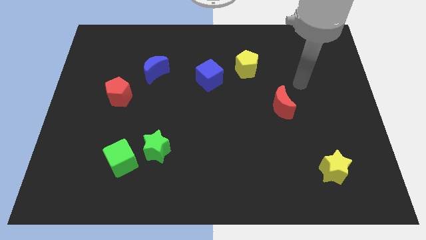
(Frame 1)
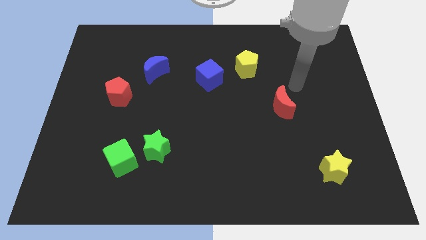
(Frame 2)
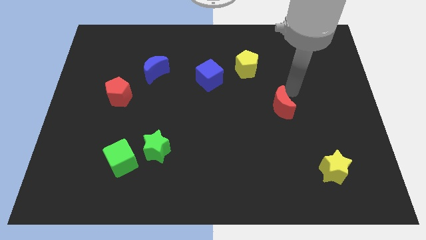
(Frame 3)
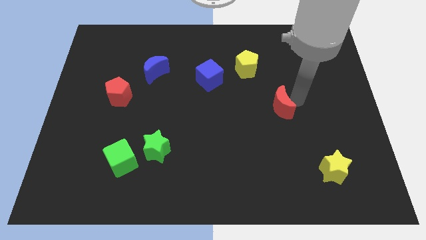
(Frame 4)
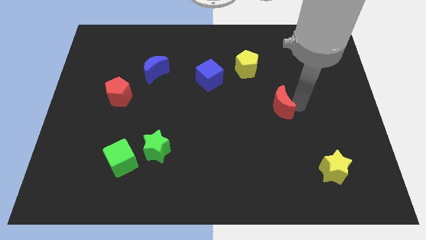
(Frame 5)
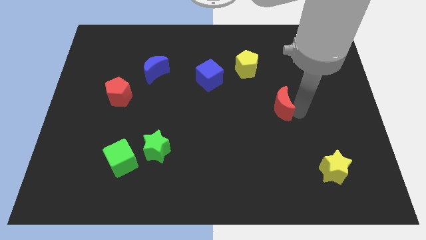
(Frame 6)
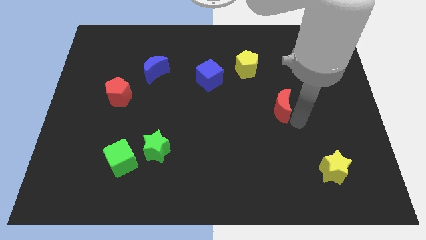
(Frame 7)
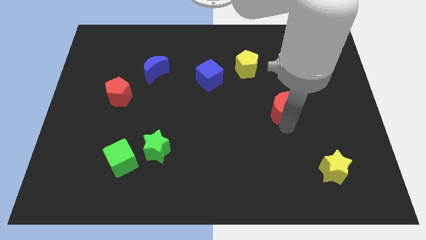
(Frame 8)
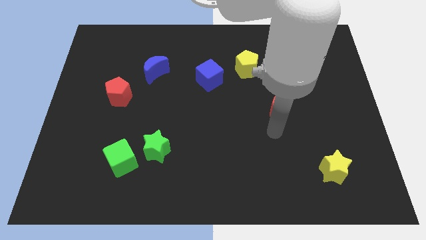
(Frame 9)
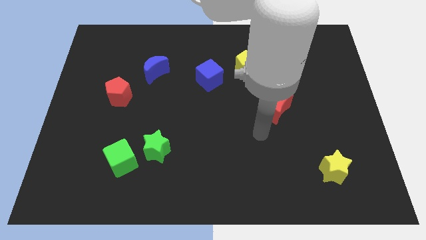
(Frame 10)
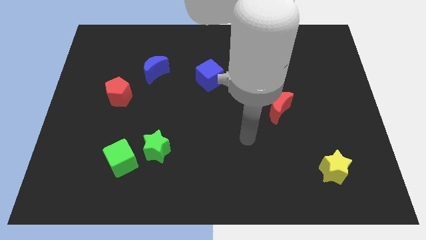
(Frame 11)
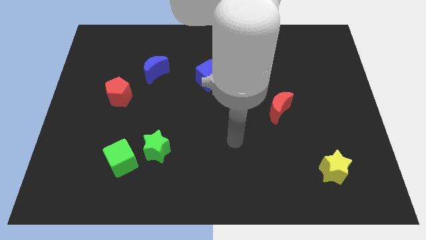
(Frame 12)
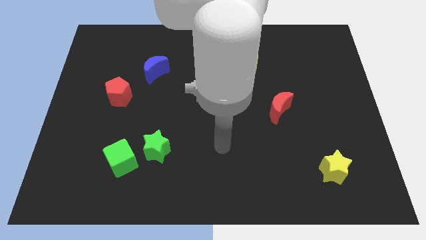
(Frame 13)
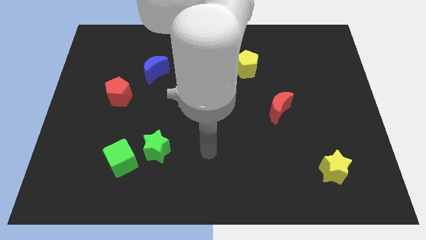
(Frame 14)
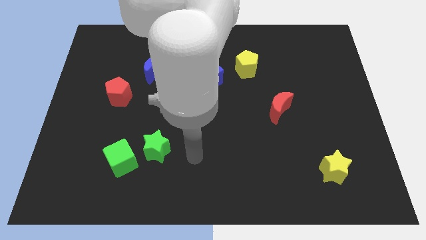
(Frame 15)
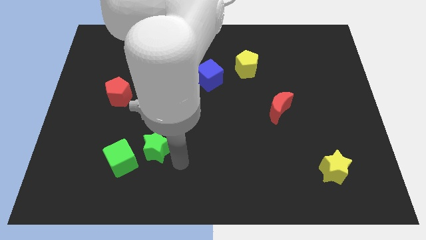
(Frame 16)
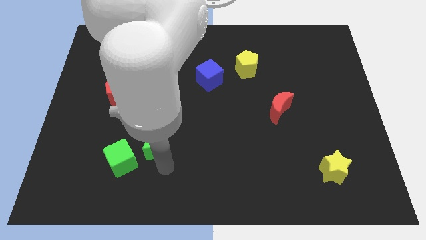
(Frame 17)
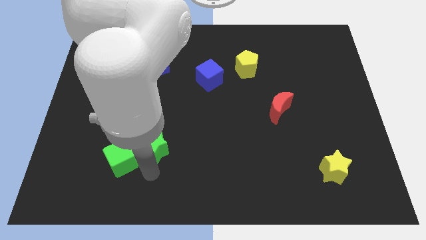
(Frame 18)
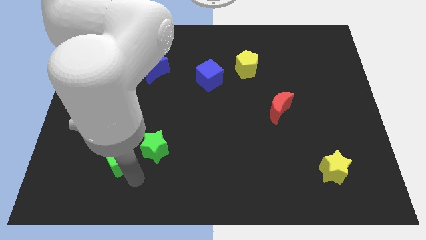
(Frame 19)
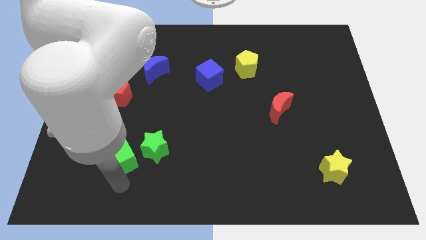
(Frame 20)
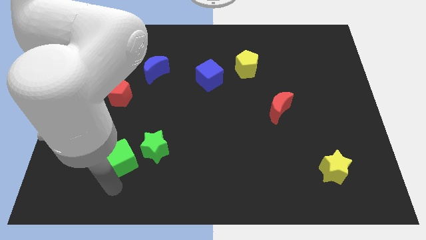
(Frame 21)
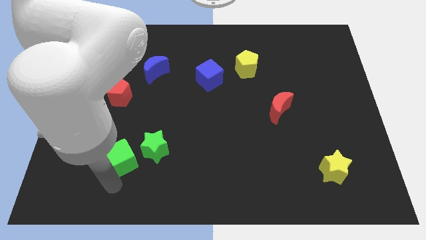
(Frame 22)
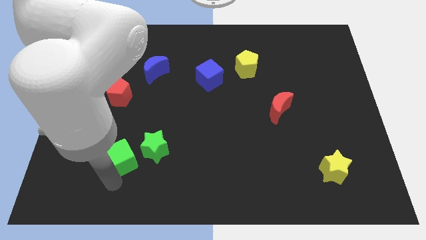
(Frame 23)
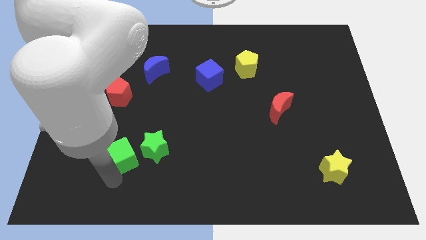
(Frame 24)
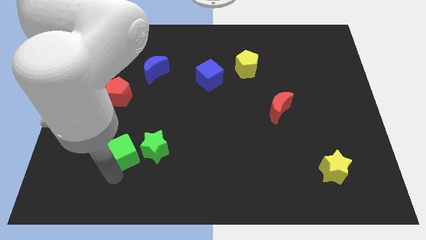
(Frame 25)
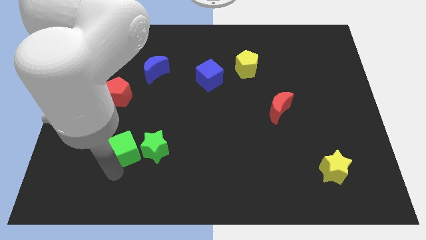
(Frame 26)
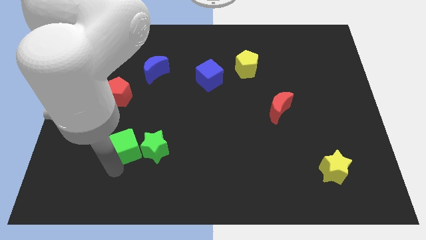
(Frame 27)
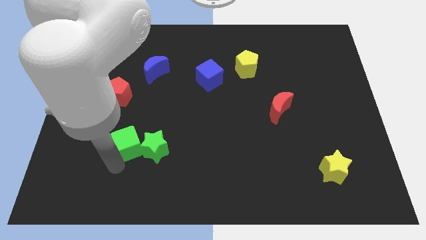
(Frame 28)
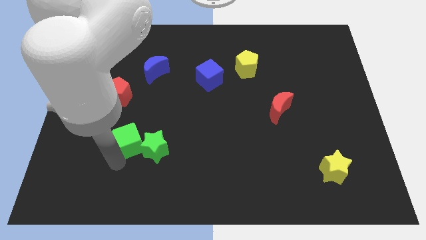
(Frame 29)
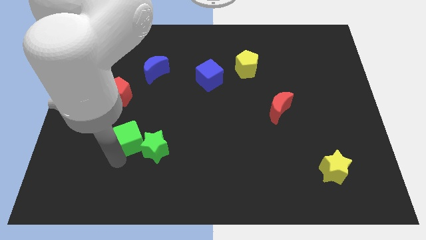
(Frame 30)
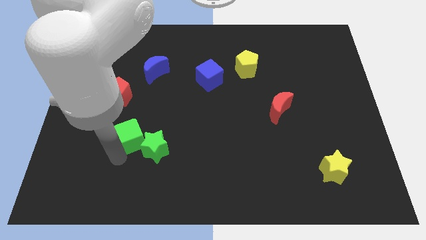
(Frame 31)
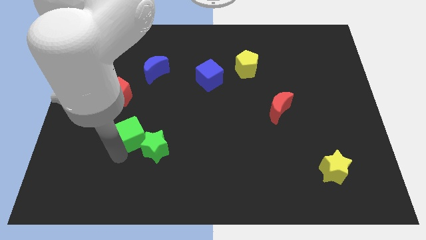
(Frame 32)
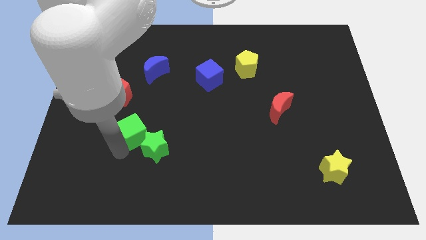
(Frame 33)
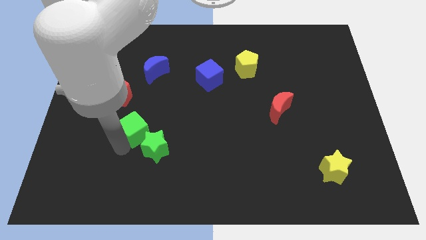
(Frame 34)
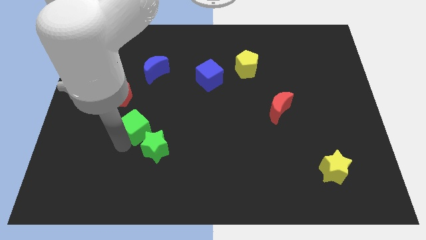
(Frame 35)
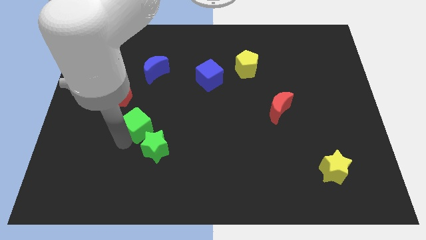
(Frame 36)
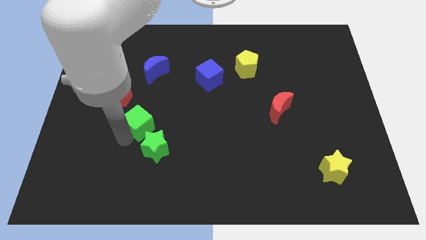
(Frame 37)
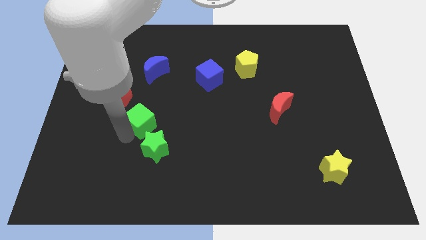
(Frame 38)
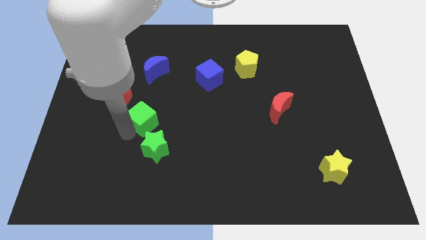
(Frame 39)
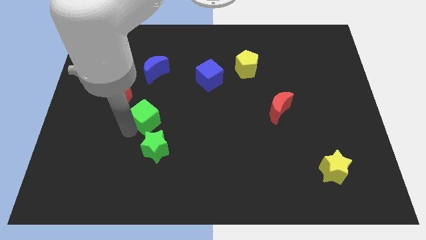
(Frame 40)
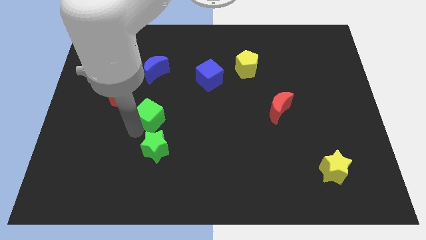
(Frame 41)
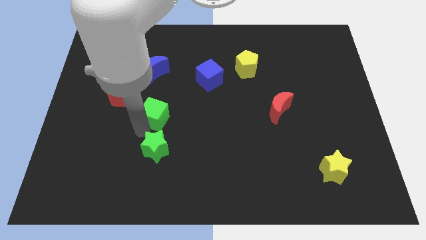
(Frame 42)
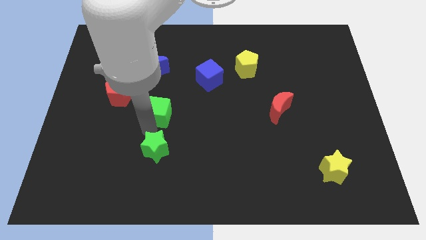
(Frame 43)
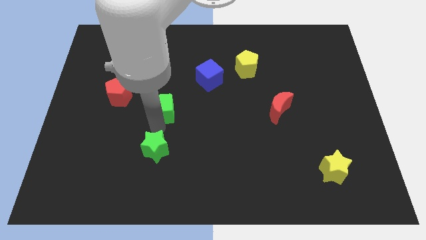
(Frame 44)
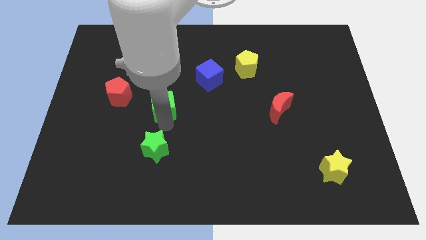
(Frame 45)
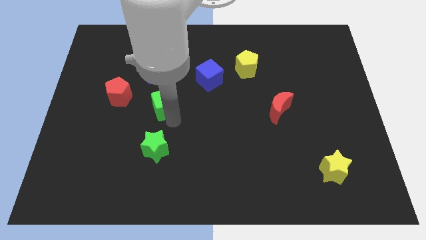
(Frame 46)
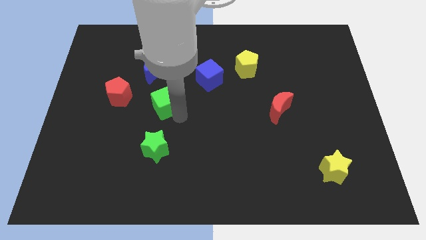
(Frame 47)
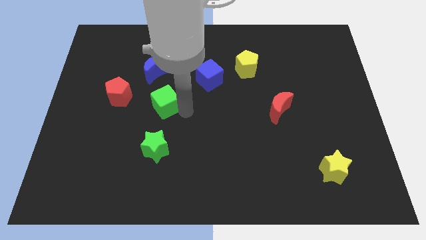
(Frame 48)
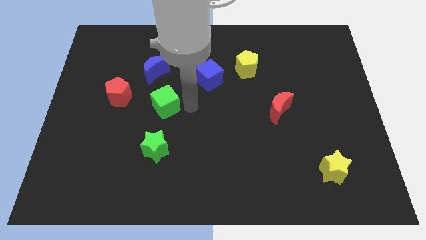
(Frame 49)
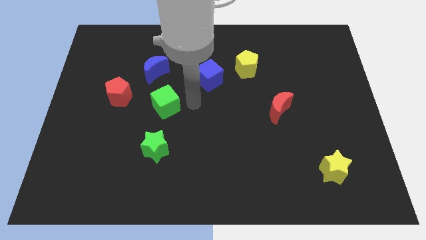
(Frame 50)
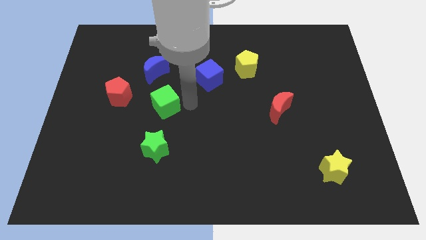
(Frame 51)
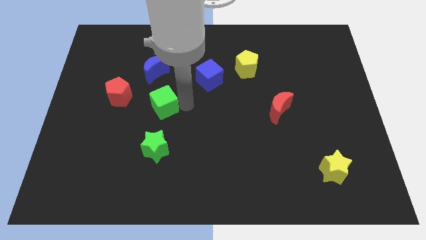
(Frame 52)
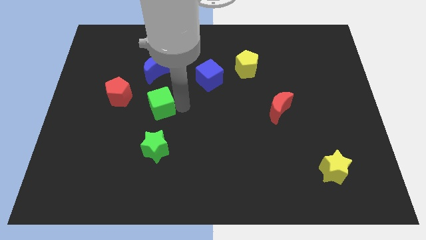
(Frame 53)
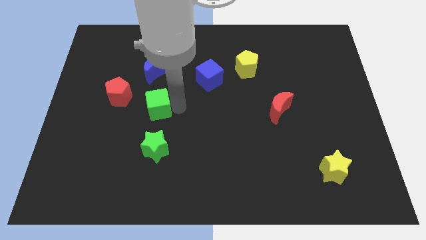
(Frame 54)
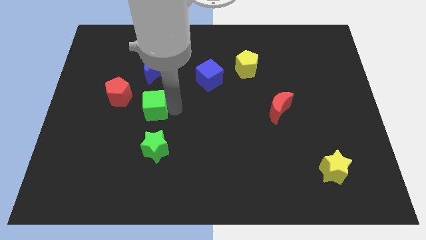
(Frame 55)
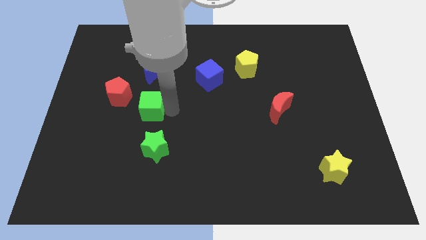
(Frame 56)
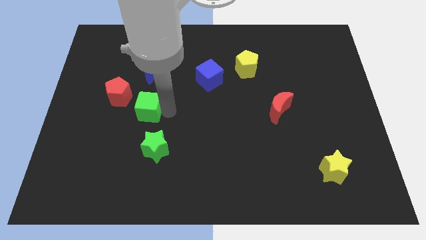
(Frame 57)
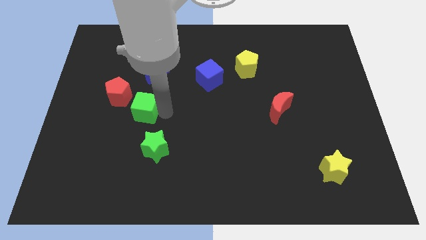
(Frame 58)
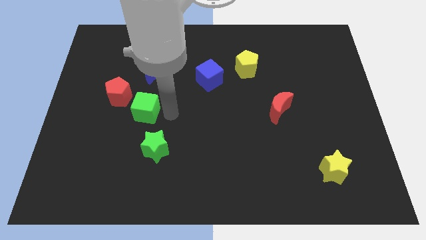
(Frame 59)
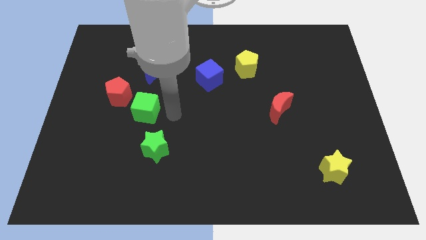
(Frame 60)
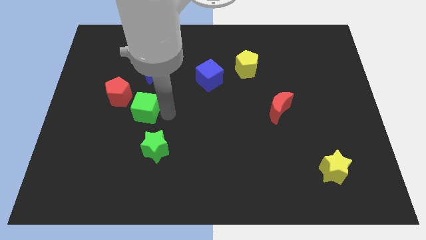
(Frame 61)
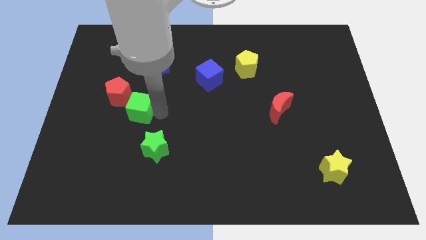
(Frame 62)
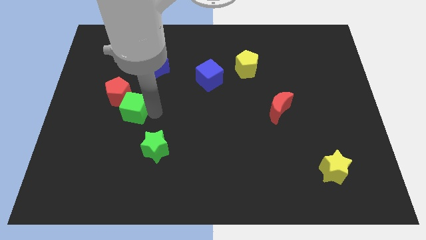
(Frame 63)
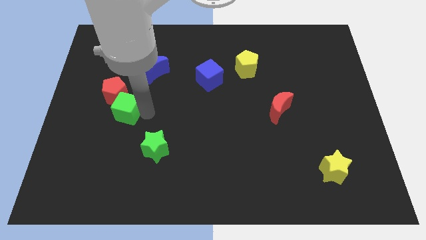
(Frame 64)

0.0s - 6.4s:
put the green cube close to the red pentagon

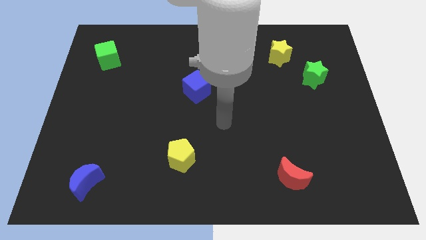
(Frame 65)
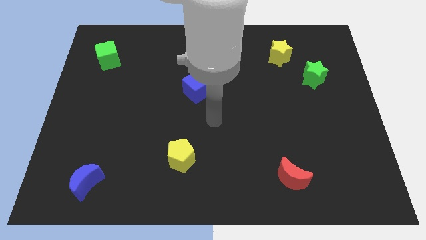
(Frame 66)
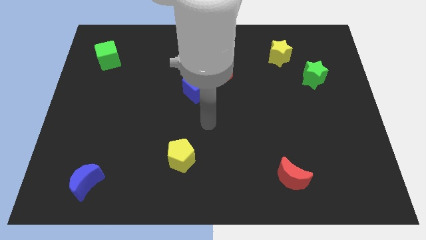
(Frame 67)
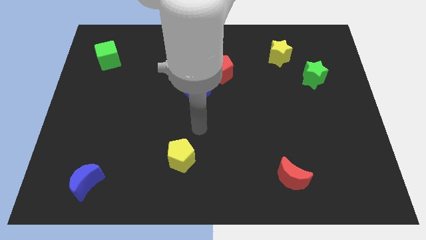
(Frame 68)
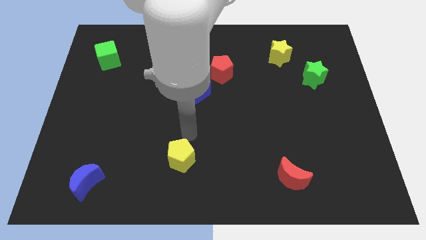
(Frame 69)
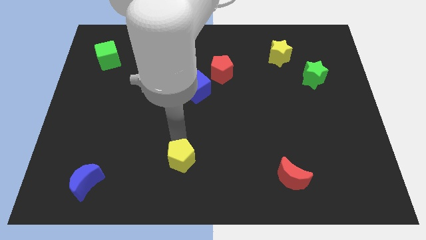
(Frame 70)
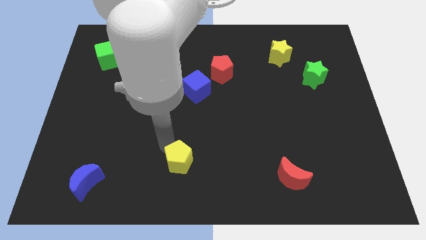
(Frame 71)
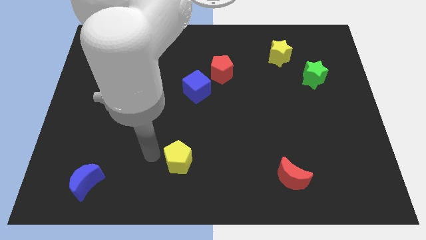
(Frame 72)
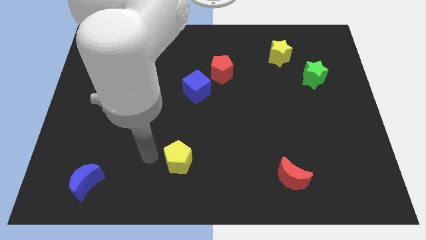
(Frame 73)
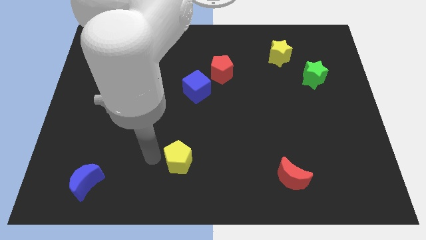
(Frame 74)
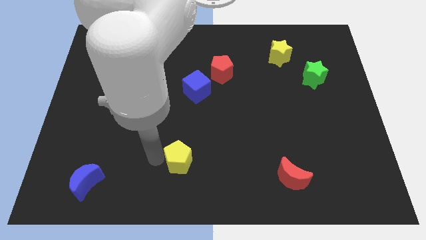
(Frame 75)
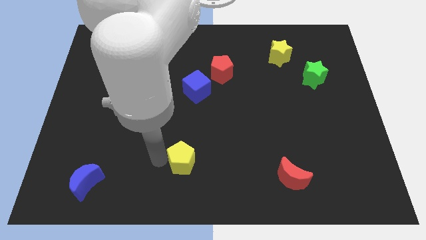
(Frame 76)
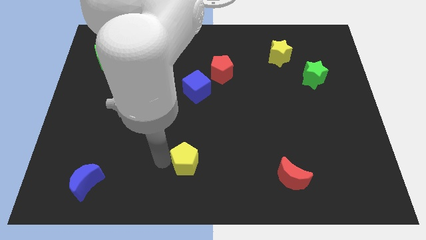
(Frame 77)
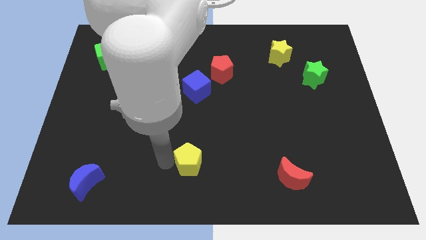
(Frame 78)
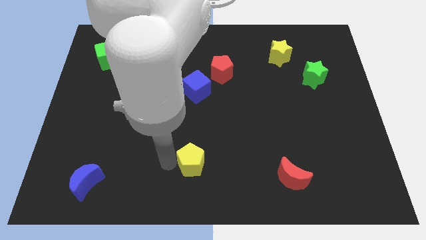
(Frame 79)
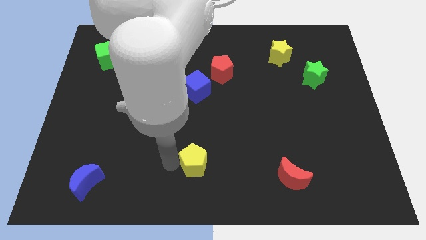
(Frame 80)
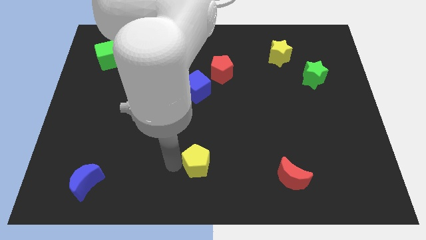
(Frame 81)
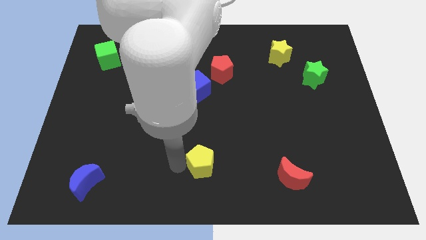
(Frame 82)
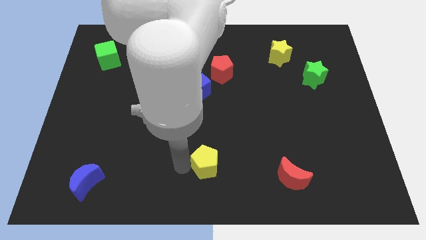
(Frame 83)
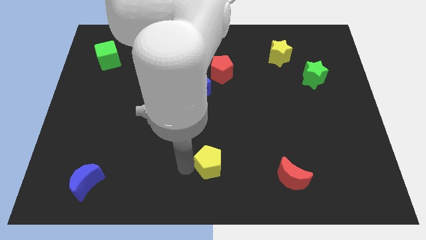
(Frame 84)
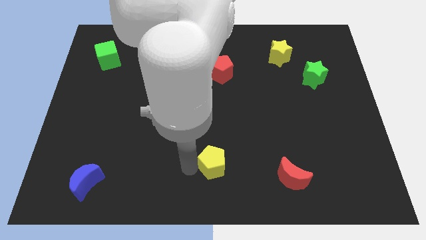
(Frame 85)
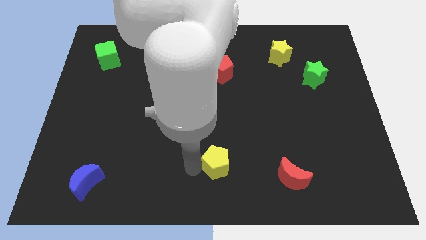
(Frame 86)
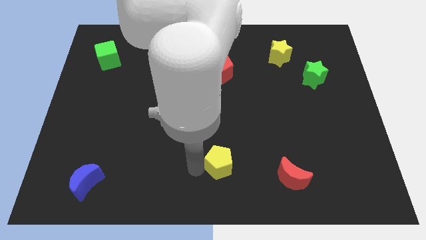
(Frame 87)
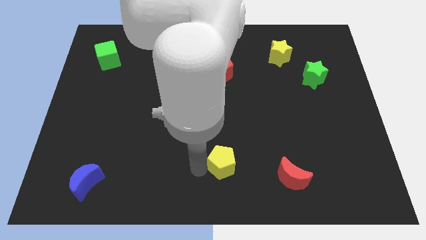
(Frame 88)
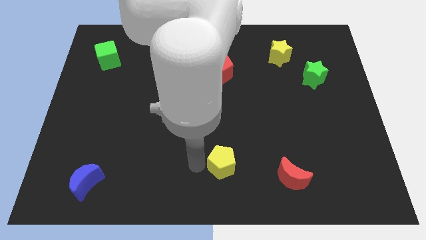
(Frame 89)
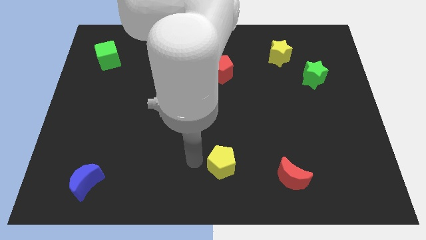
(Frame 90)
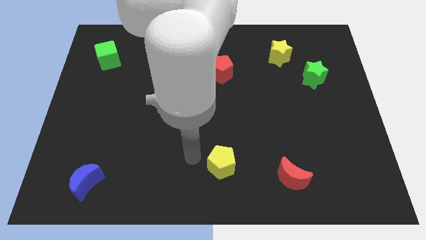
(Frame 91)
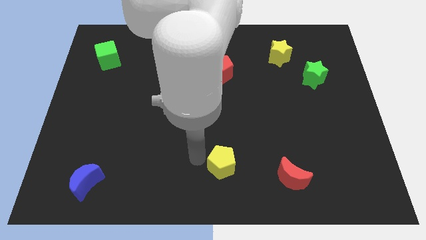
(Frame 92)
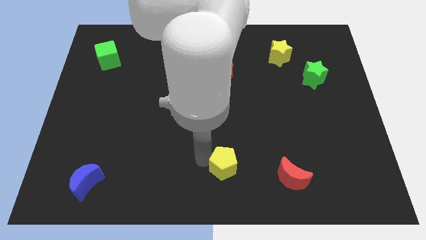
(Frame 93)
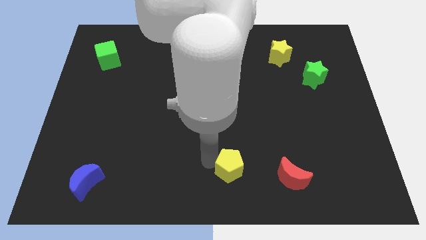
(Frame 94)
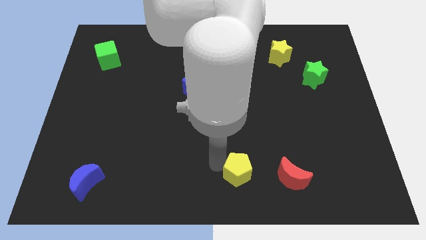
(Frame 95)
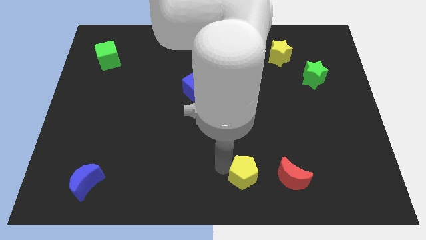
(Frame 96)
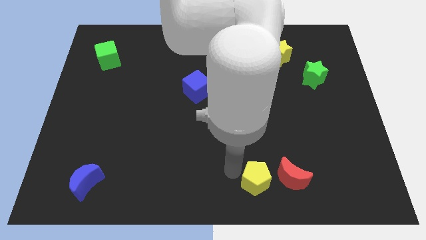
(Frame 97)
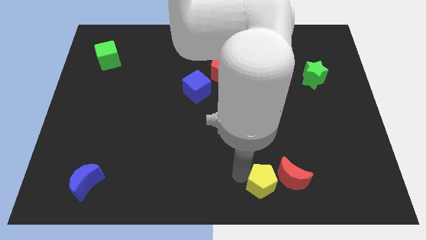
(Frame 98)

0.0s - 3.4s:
push the yellow pentagon to the red moon
